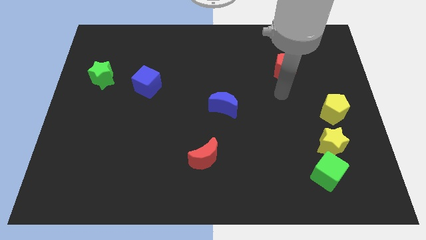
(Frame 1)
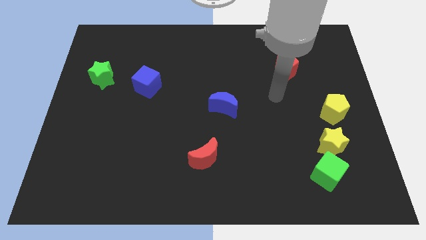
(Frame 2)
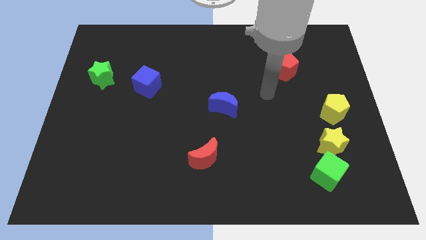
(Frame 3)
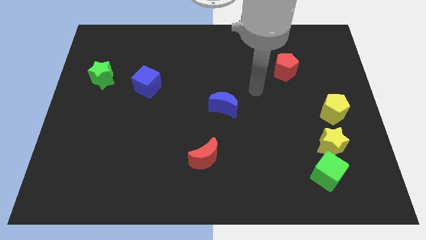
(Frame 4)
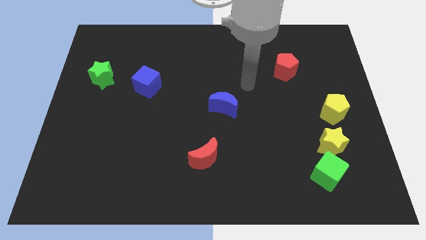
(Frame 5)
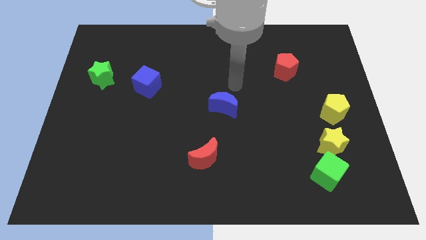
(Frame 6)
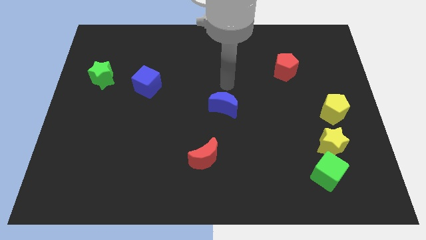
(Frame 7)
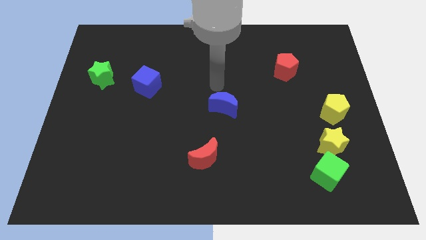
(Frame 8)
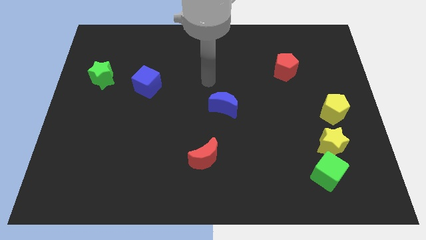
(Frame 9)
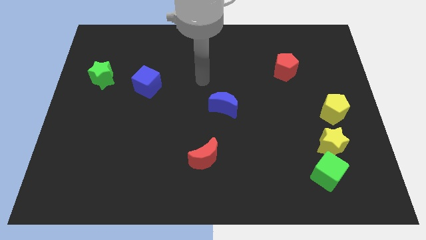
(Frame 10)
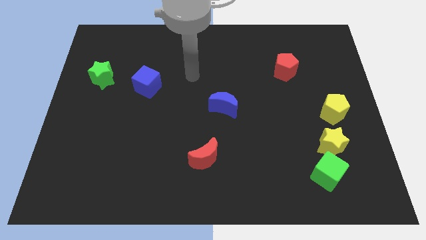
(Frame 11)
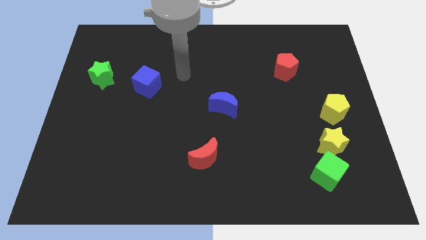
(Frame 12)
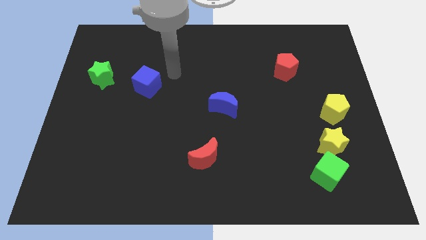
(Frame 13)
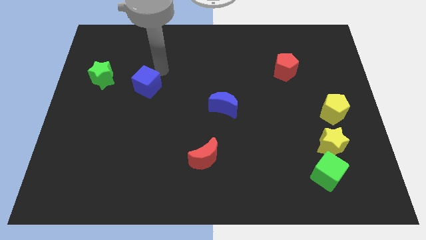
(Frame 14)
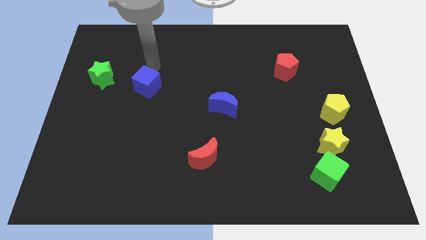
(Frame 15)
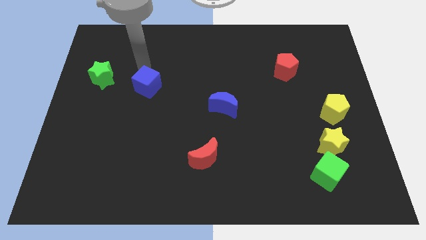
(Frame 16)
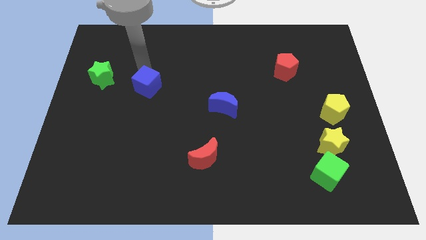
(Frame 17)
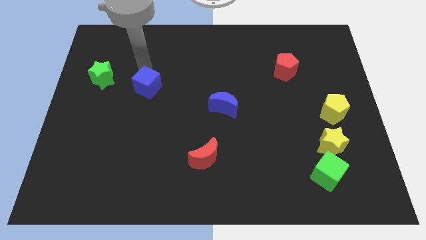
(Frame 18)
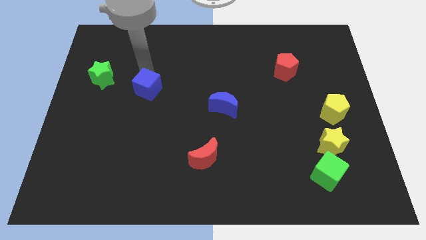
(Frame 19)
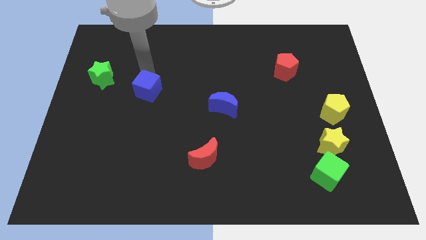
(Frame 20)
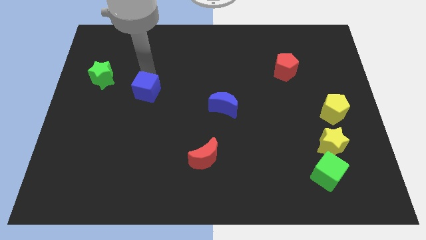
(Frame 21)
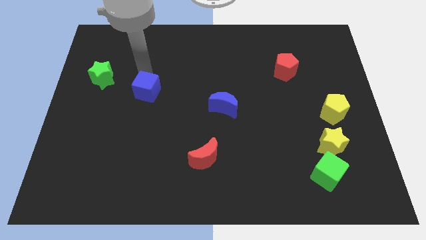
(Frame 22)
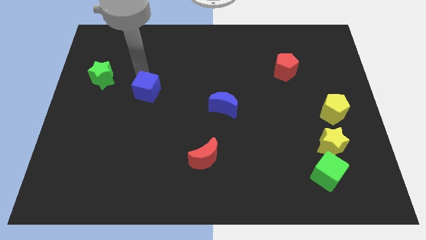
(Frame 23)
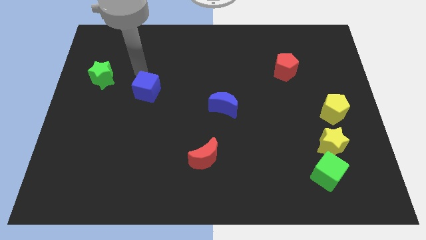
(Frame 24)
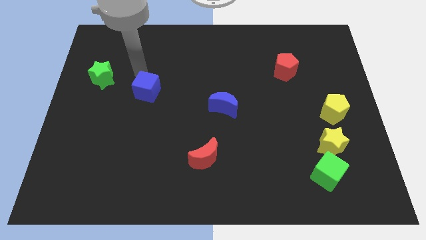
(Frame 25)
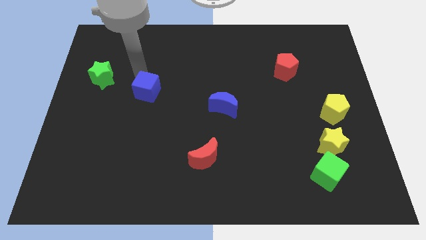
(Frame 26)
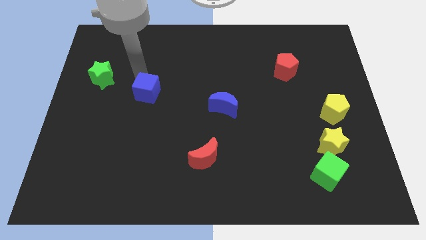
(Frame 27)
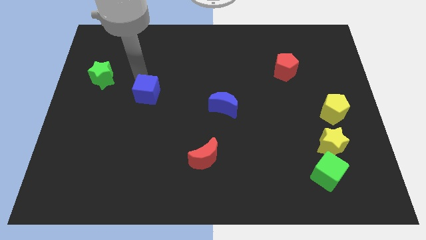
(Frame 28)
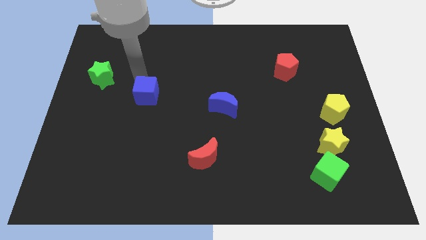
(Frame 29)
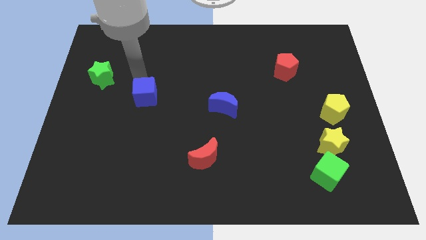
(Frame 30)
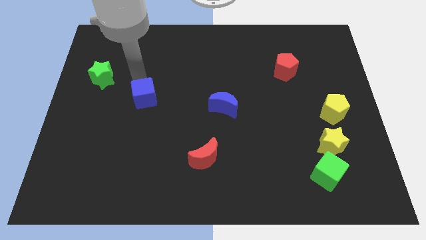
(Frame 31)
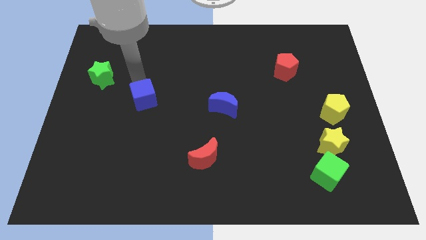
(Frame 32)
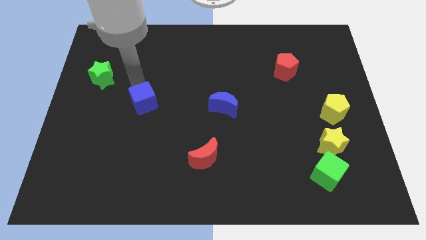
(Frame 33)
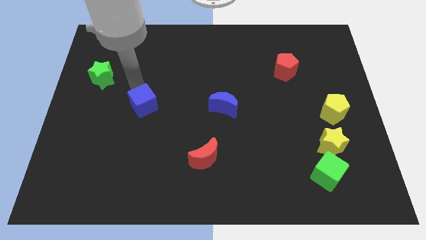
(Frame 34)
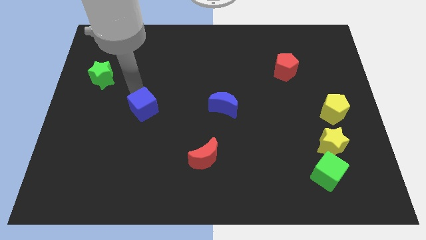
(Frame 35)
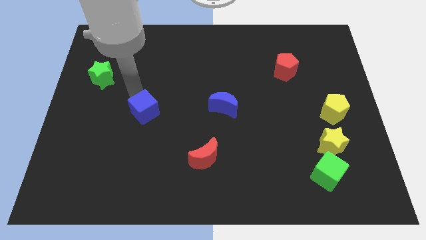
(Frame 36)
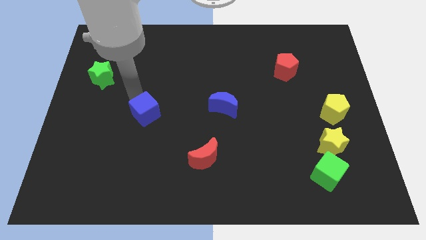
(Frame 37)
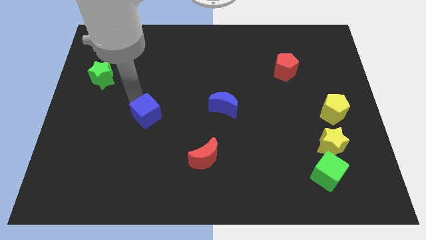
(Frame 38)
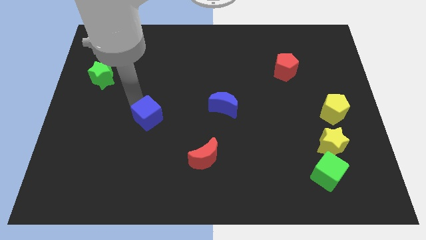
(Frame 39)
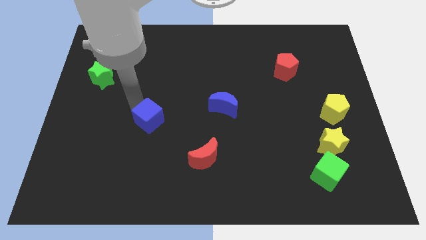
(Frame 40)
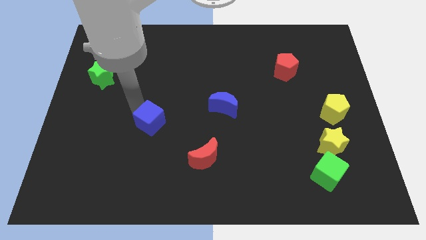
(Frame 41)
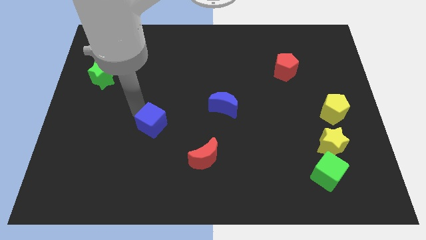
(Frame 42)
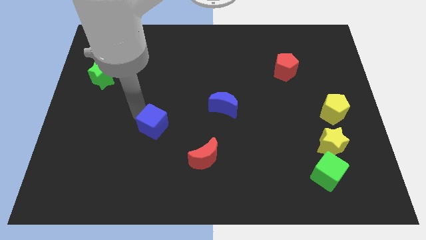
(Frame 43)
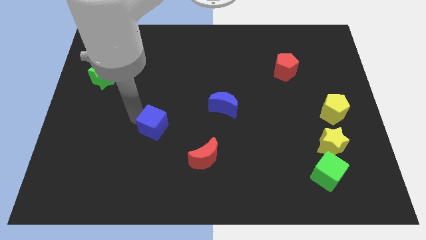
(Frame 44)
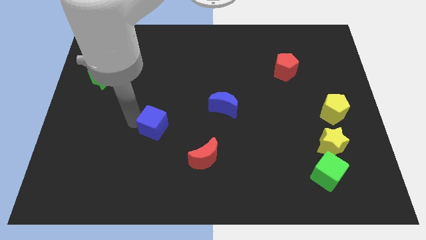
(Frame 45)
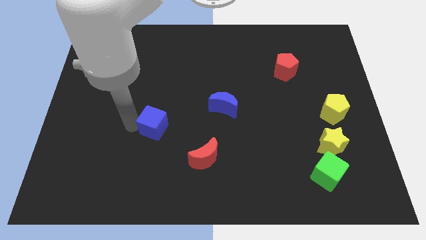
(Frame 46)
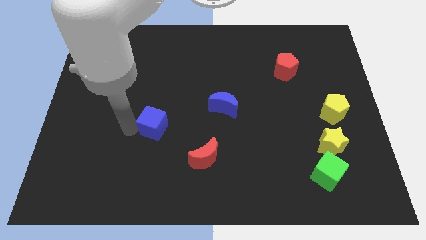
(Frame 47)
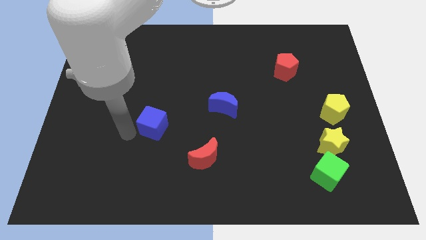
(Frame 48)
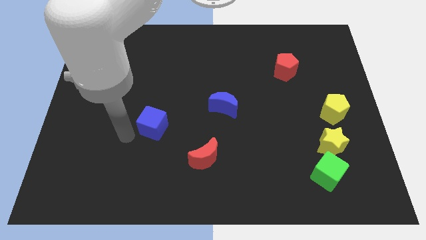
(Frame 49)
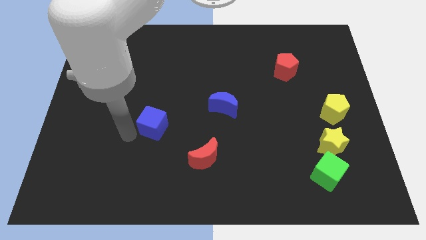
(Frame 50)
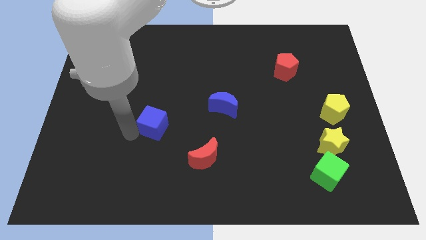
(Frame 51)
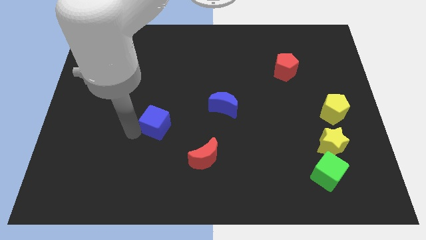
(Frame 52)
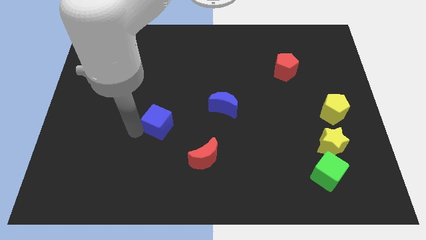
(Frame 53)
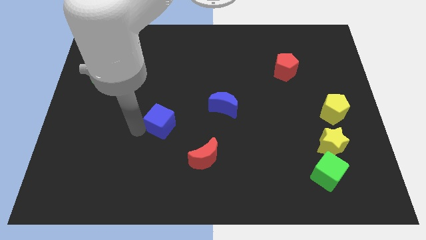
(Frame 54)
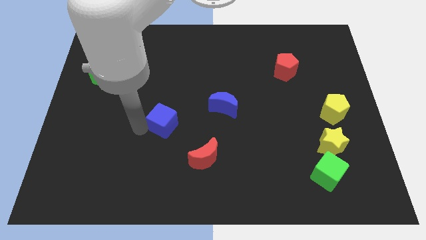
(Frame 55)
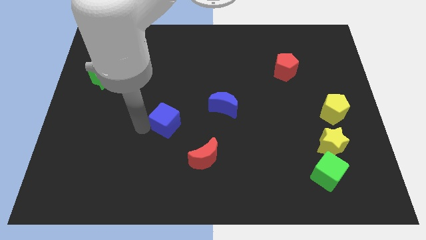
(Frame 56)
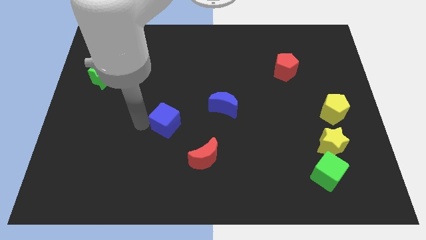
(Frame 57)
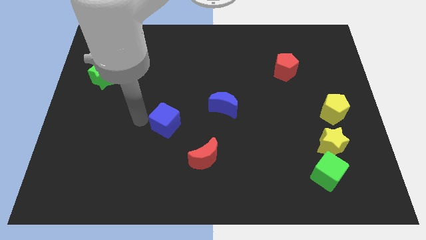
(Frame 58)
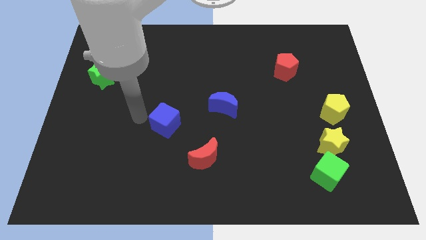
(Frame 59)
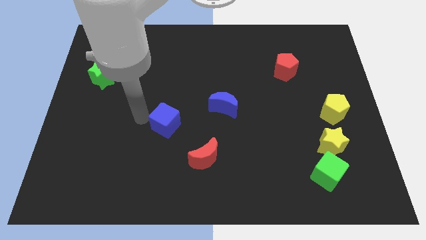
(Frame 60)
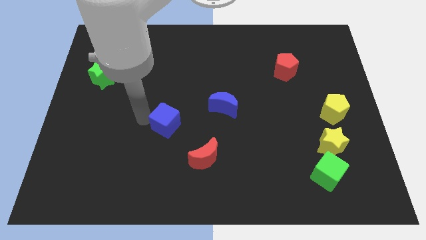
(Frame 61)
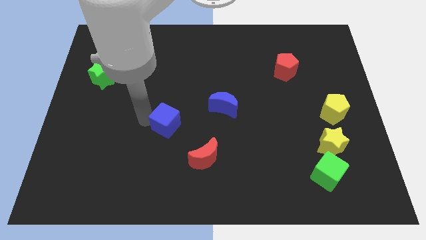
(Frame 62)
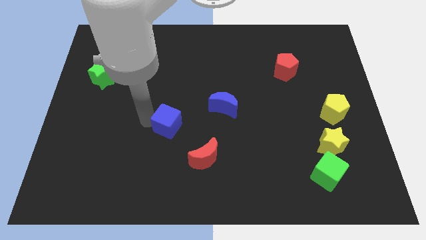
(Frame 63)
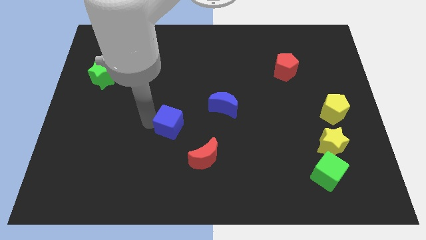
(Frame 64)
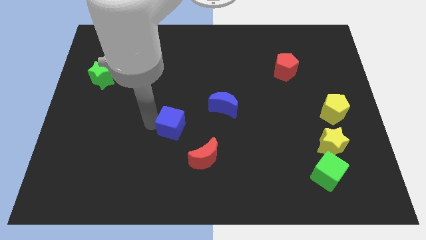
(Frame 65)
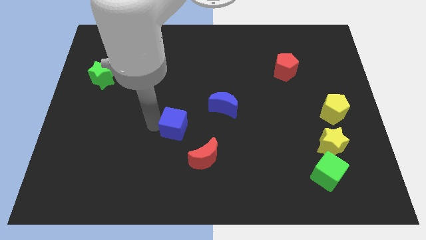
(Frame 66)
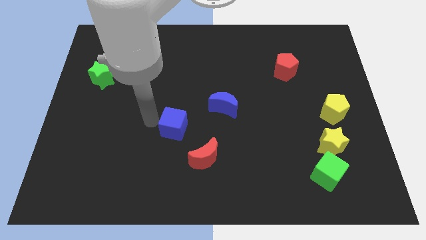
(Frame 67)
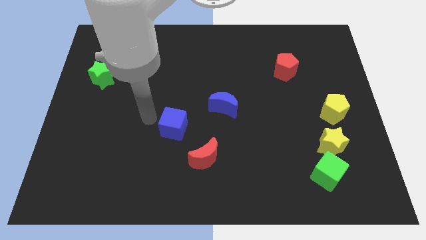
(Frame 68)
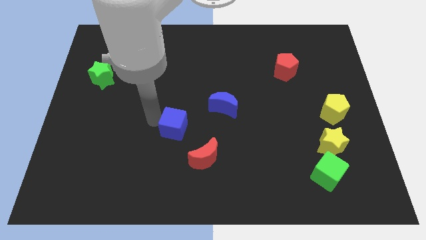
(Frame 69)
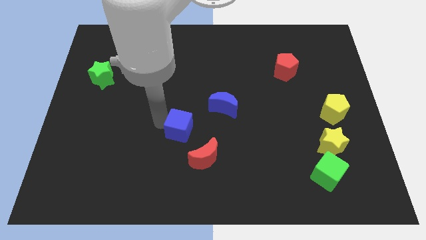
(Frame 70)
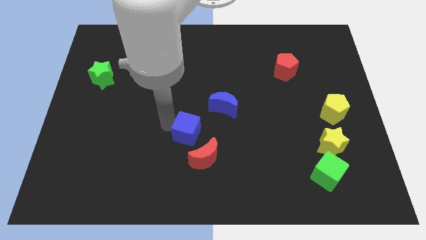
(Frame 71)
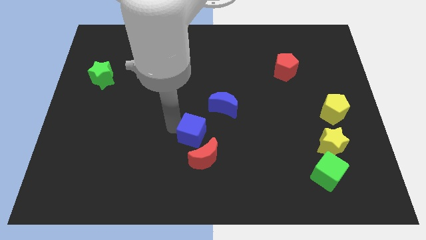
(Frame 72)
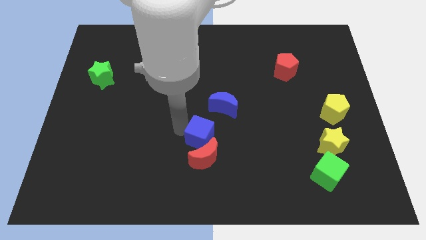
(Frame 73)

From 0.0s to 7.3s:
slide the blue cube diagonally down and to the right

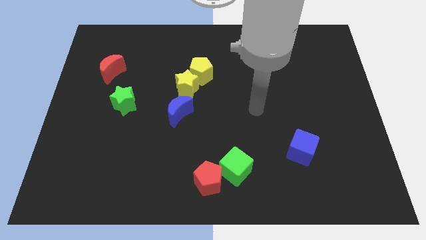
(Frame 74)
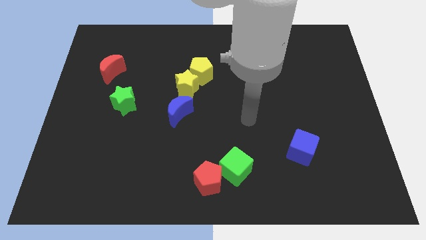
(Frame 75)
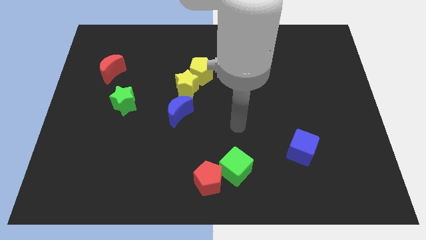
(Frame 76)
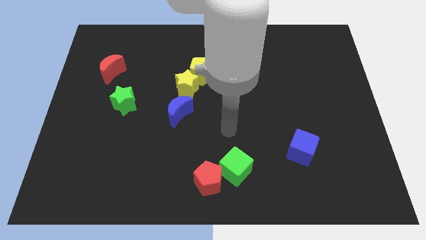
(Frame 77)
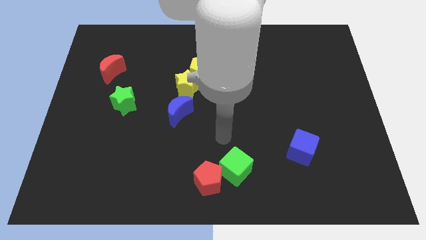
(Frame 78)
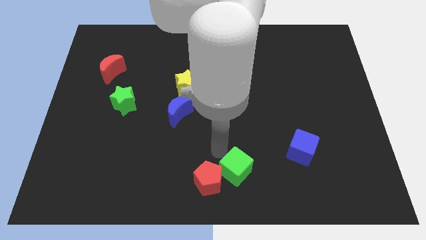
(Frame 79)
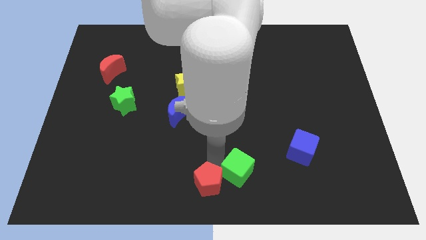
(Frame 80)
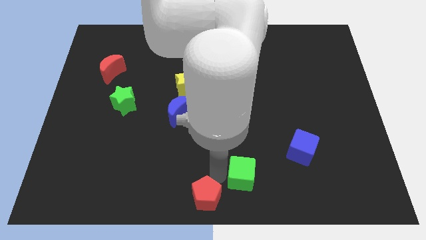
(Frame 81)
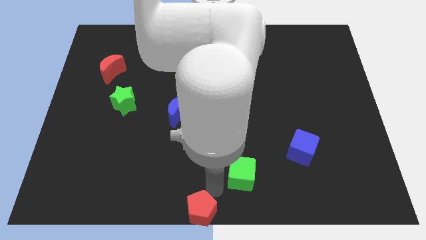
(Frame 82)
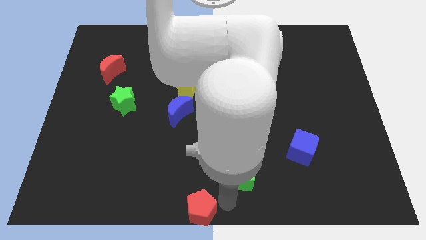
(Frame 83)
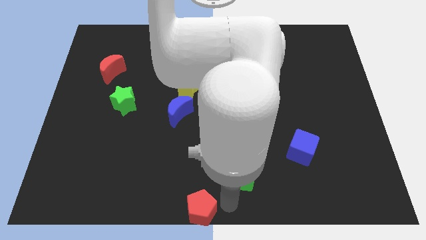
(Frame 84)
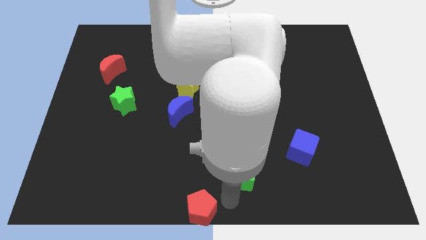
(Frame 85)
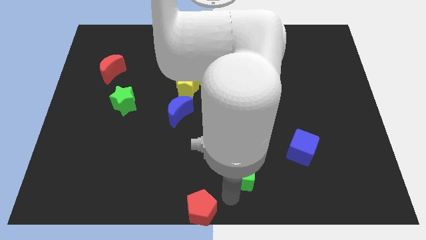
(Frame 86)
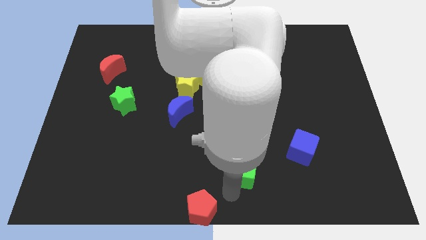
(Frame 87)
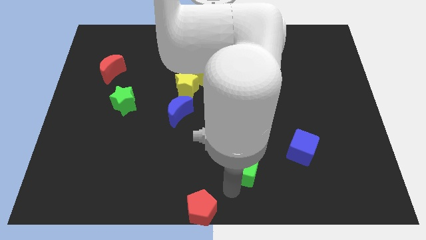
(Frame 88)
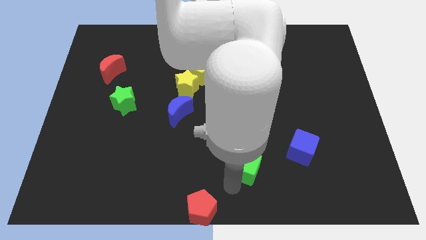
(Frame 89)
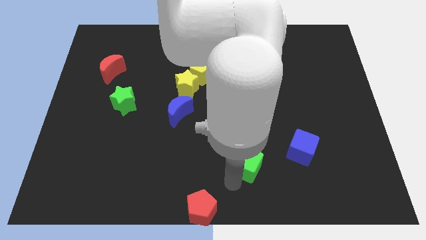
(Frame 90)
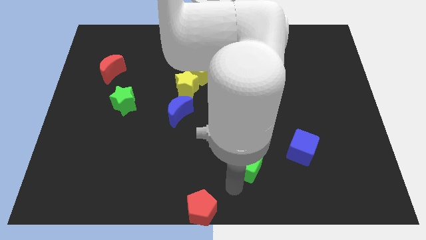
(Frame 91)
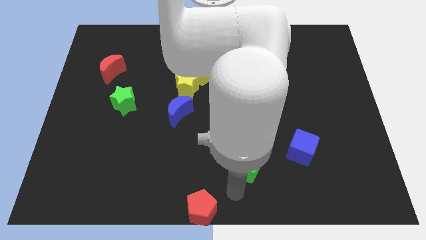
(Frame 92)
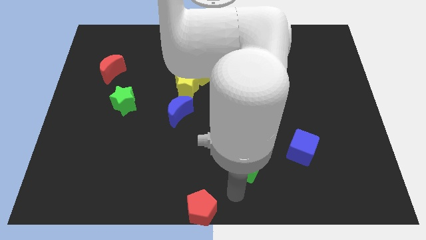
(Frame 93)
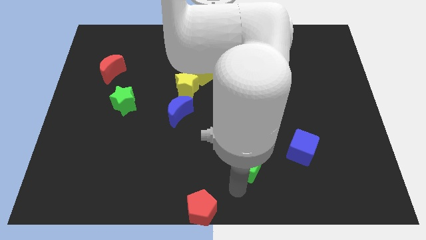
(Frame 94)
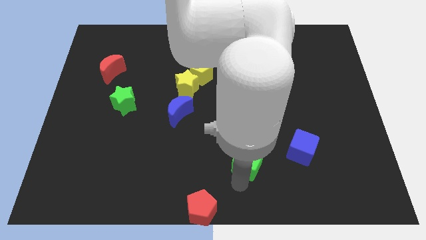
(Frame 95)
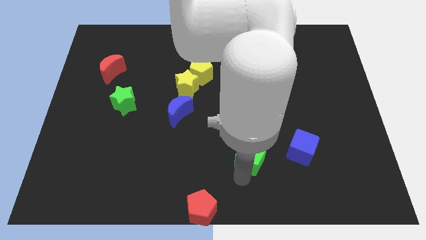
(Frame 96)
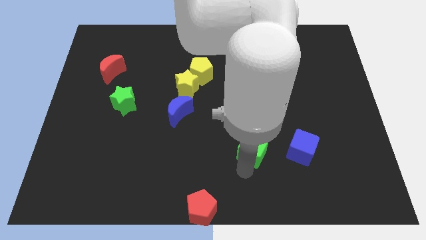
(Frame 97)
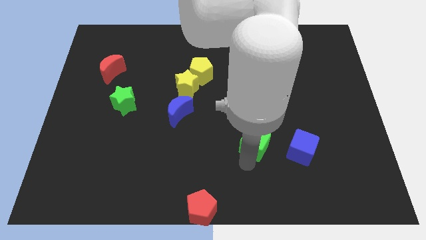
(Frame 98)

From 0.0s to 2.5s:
slightly push the green cube diagonally upwards and right
